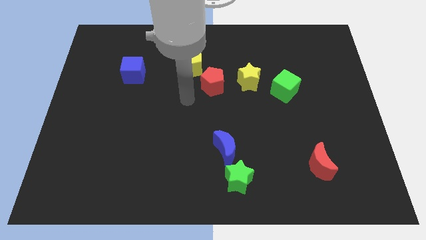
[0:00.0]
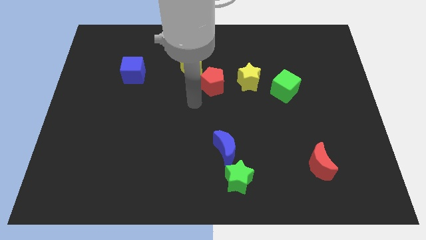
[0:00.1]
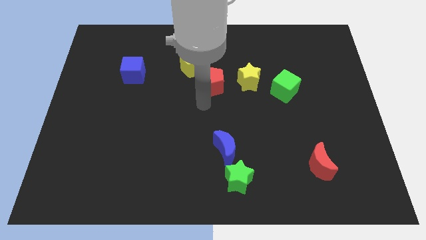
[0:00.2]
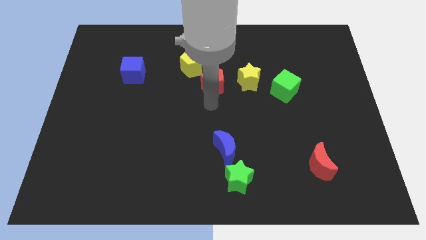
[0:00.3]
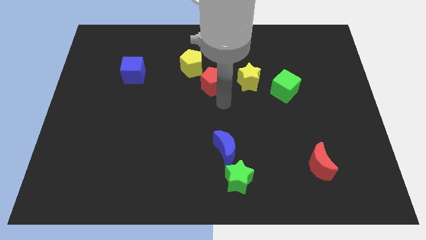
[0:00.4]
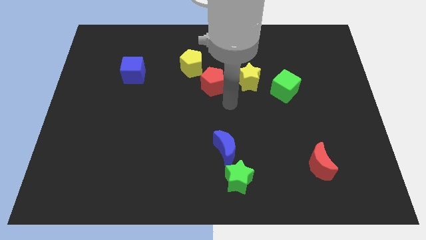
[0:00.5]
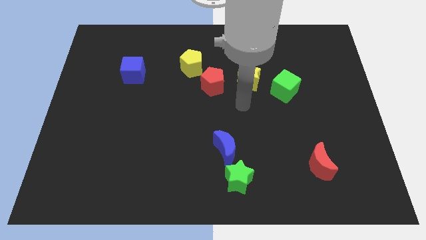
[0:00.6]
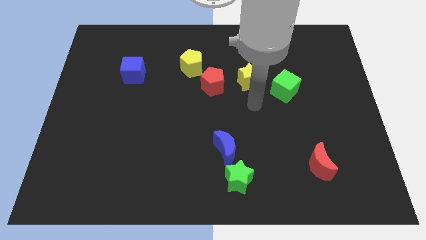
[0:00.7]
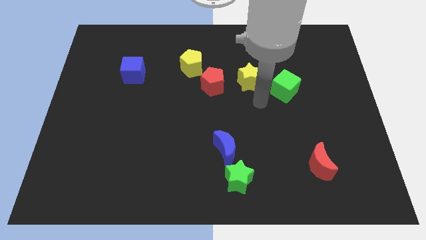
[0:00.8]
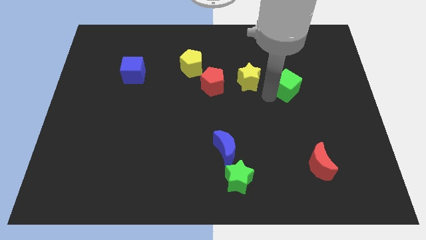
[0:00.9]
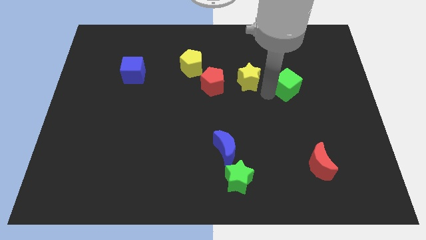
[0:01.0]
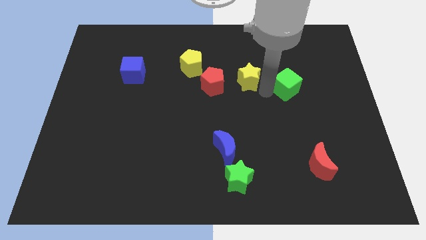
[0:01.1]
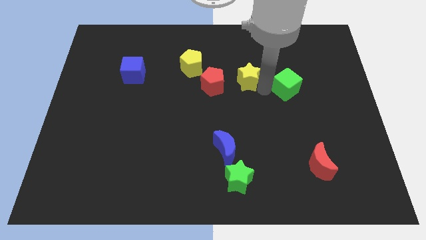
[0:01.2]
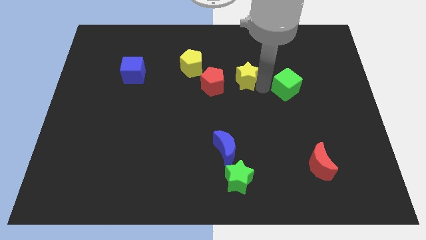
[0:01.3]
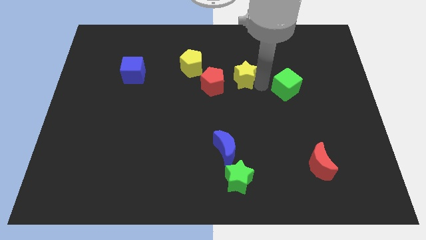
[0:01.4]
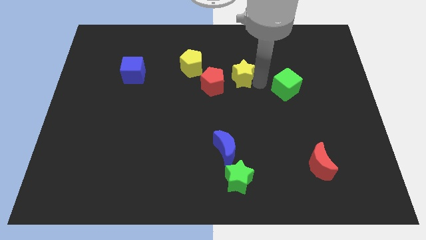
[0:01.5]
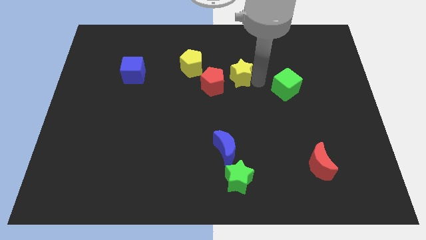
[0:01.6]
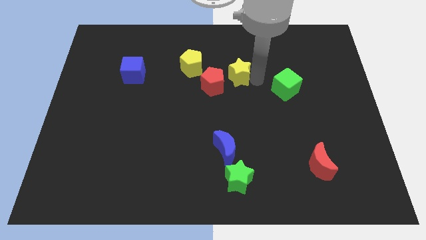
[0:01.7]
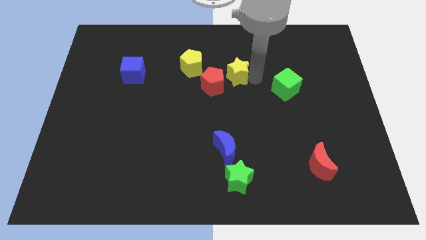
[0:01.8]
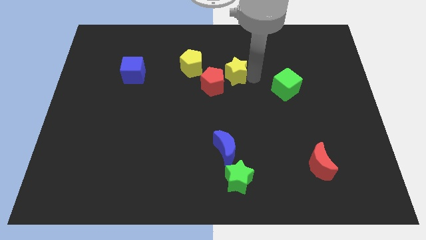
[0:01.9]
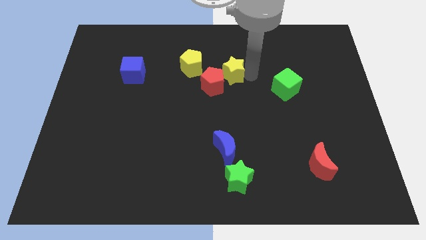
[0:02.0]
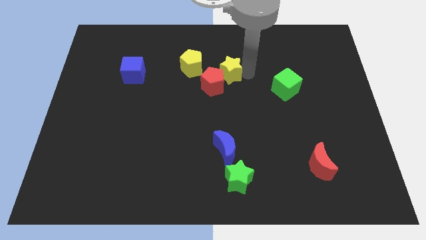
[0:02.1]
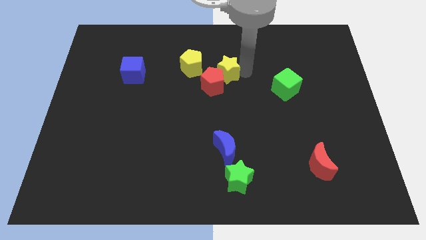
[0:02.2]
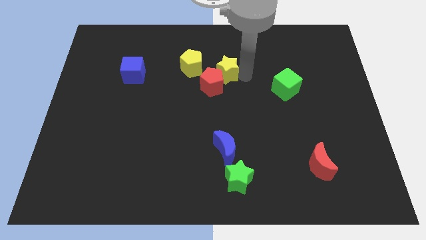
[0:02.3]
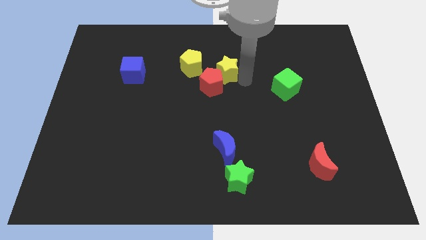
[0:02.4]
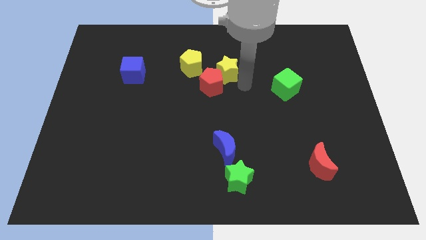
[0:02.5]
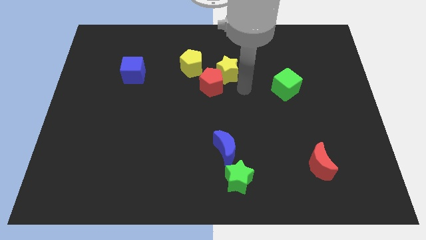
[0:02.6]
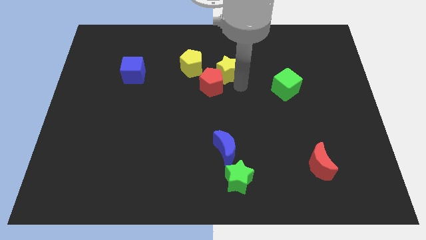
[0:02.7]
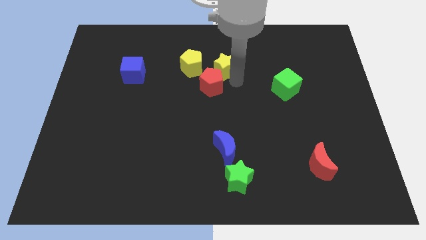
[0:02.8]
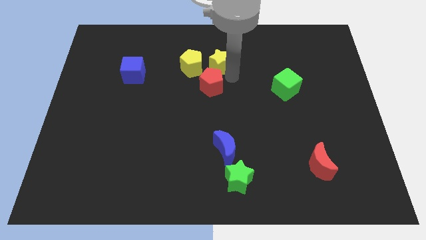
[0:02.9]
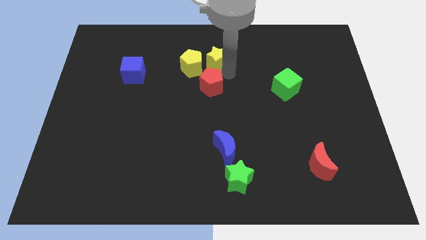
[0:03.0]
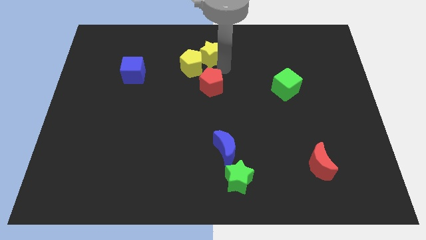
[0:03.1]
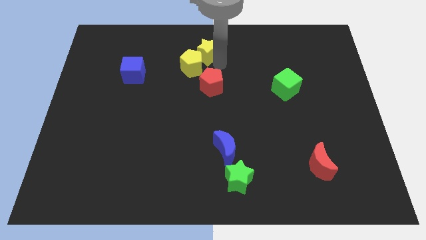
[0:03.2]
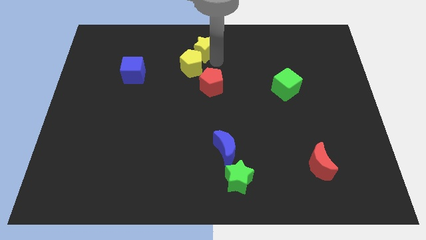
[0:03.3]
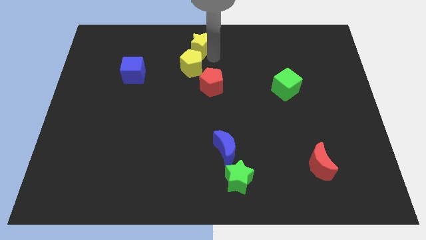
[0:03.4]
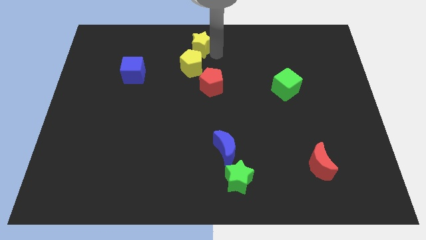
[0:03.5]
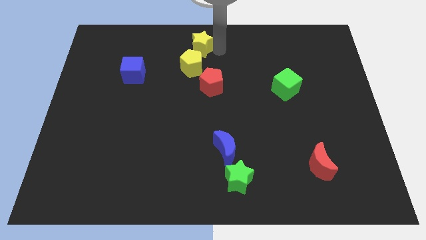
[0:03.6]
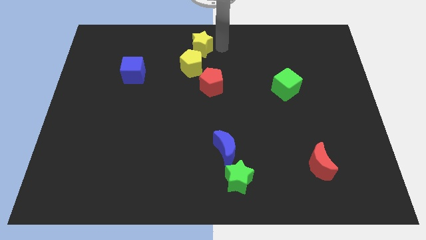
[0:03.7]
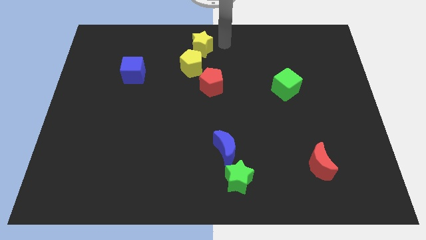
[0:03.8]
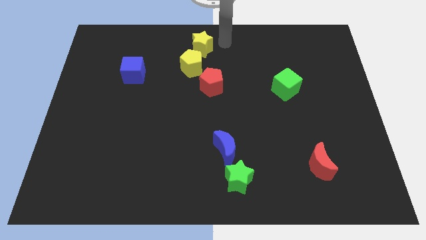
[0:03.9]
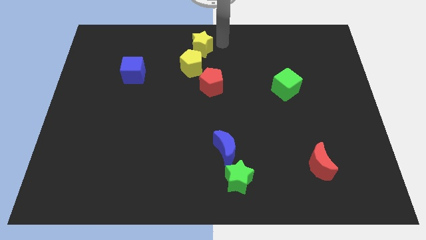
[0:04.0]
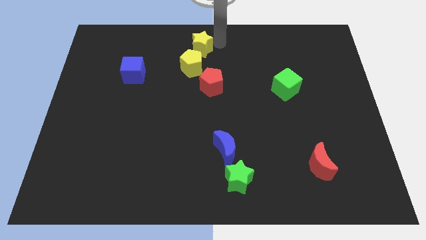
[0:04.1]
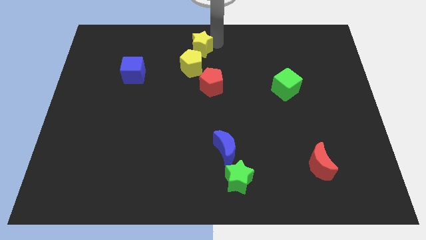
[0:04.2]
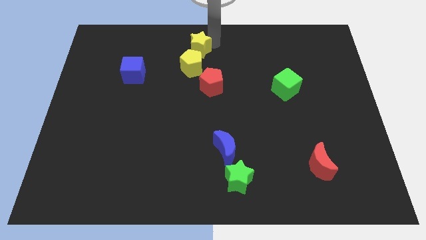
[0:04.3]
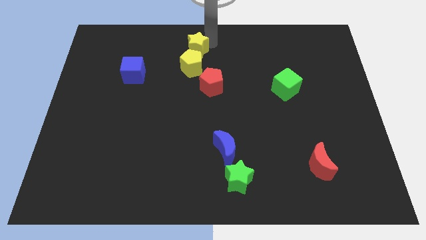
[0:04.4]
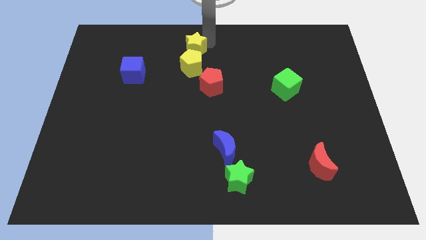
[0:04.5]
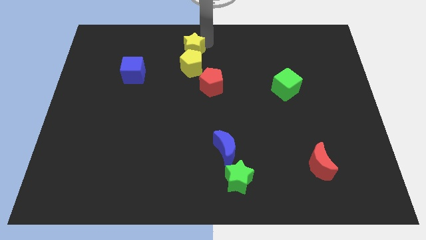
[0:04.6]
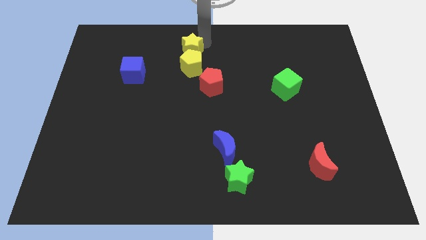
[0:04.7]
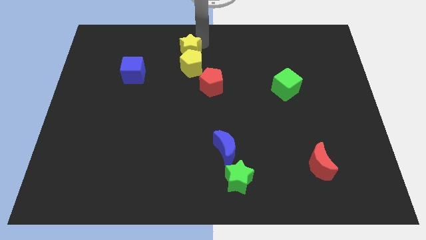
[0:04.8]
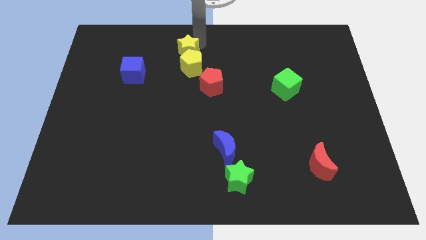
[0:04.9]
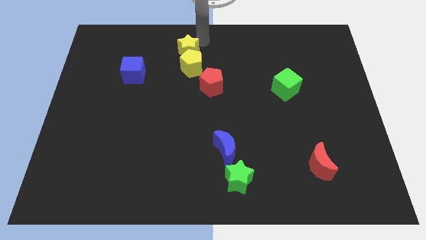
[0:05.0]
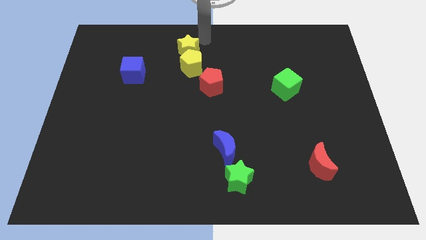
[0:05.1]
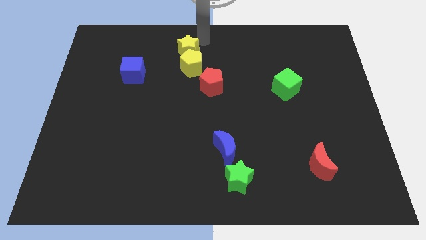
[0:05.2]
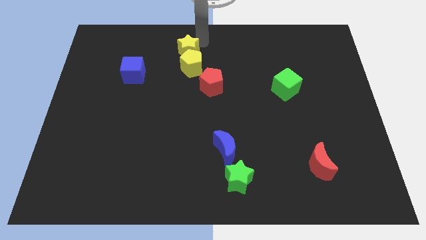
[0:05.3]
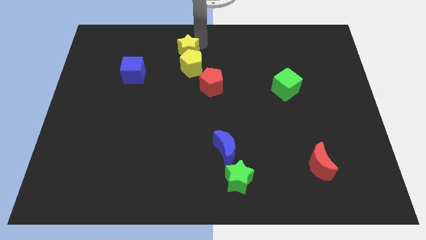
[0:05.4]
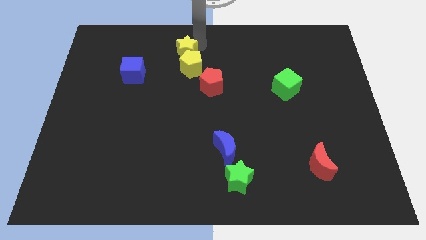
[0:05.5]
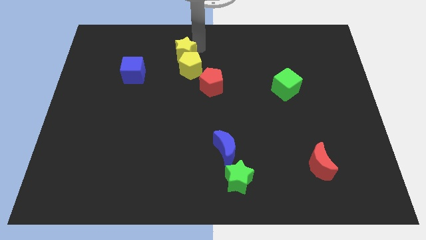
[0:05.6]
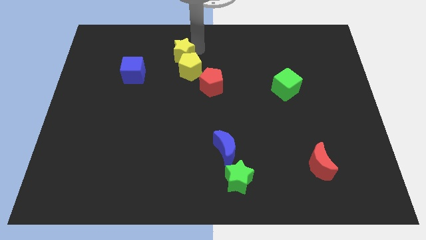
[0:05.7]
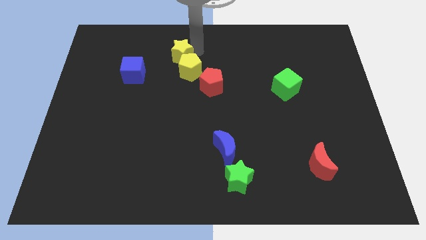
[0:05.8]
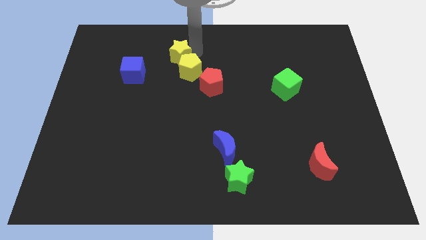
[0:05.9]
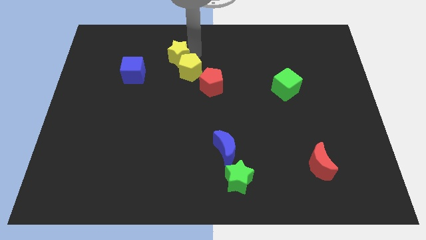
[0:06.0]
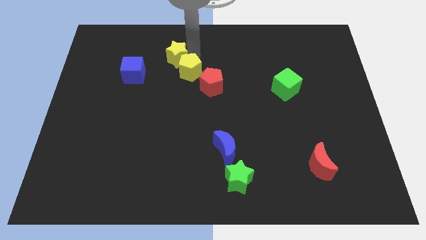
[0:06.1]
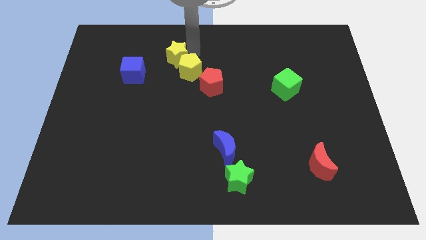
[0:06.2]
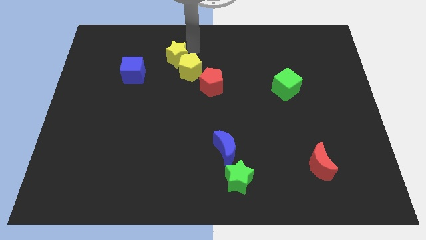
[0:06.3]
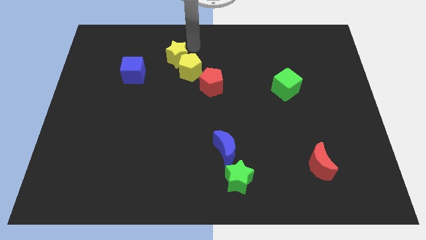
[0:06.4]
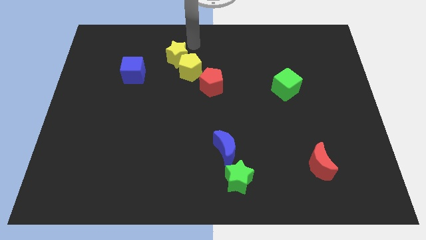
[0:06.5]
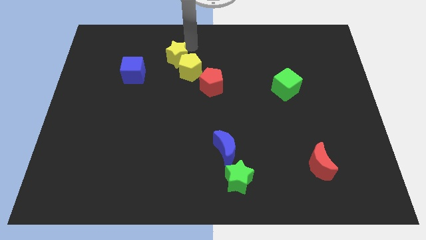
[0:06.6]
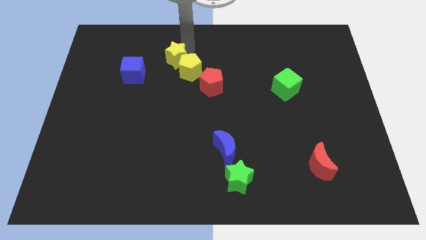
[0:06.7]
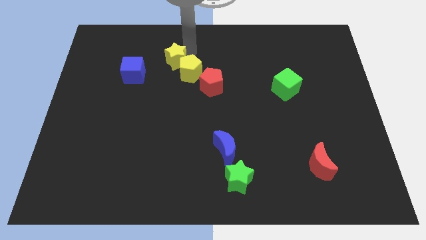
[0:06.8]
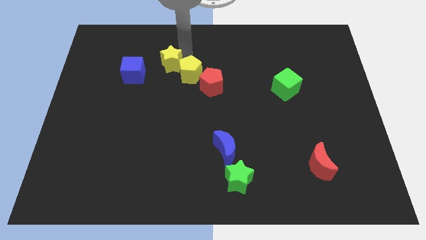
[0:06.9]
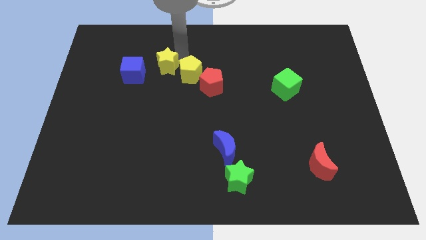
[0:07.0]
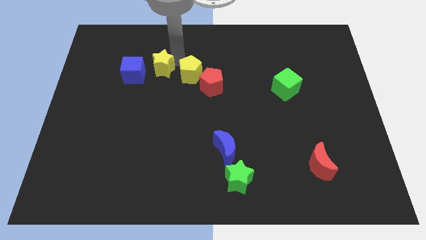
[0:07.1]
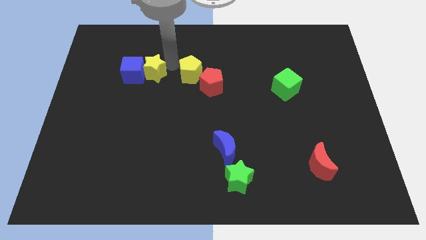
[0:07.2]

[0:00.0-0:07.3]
put the yellow star close to the blue cube
